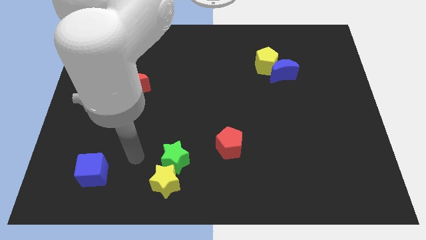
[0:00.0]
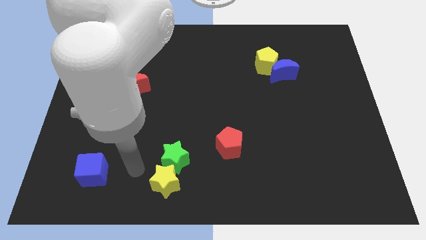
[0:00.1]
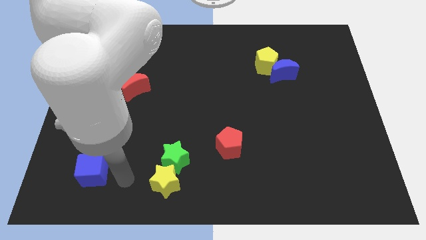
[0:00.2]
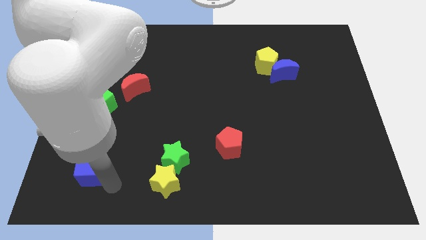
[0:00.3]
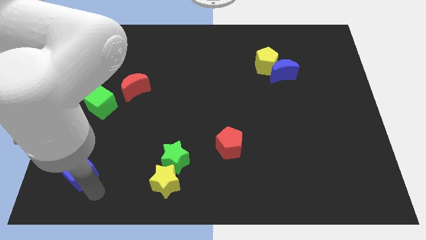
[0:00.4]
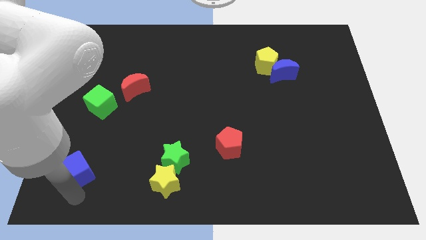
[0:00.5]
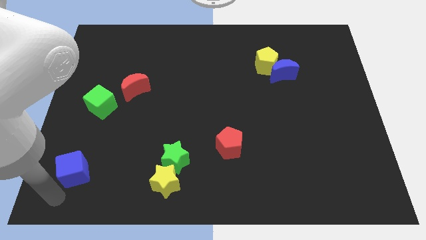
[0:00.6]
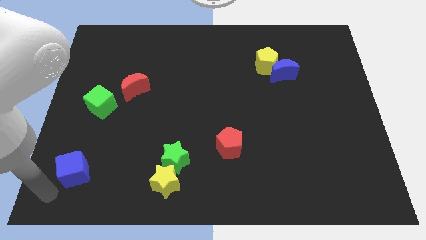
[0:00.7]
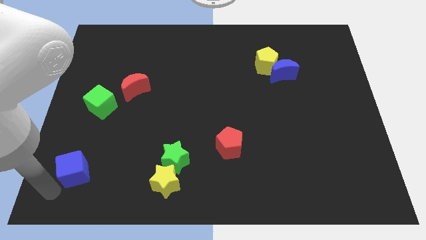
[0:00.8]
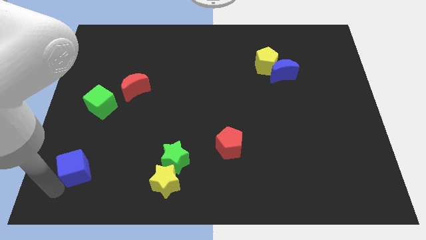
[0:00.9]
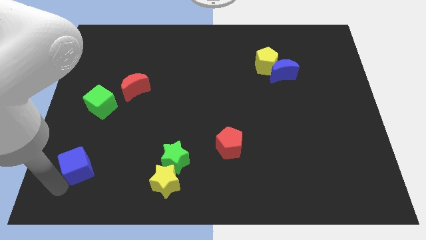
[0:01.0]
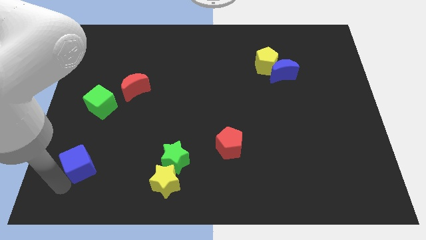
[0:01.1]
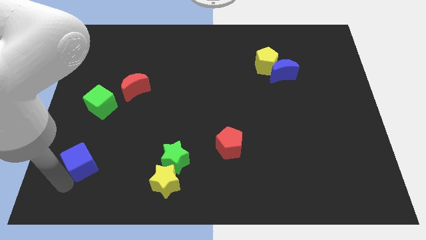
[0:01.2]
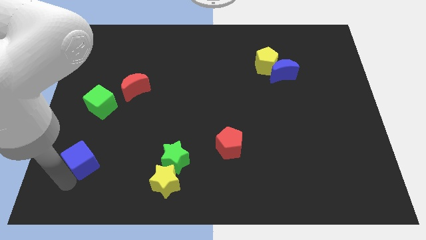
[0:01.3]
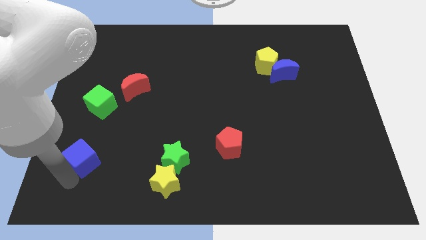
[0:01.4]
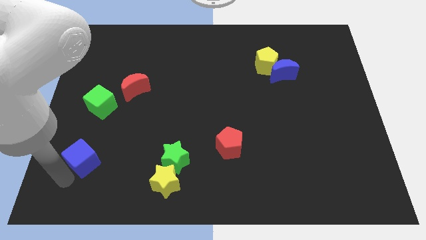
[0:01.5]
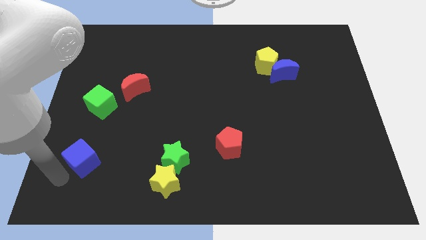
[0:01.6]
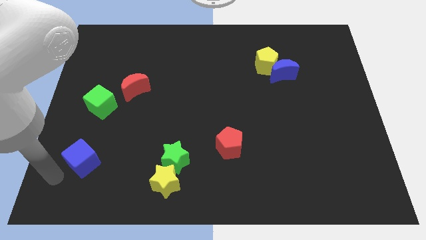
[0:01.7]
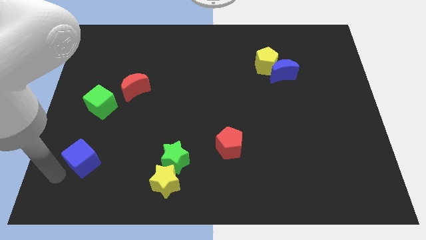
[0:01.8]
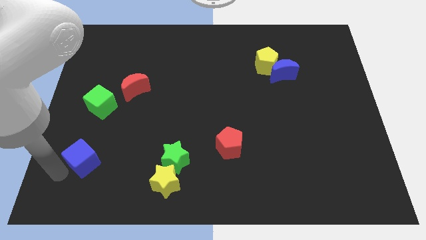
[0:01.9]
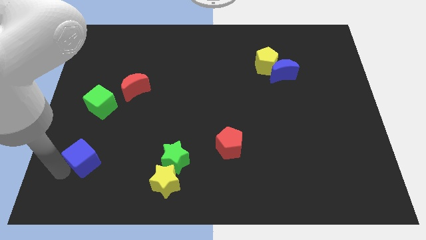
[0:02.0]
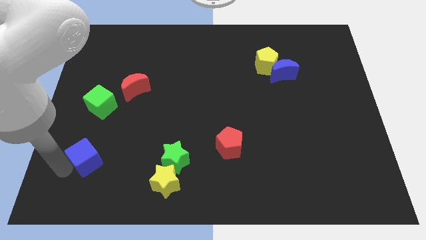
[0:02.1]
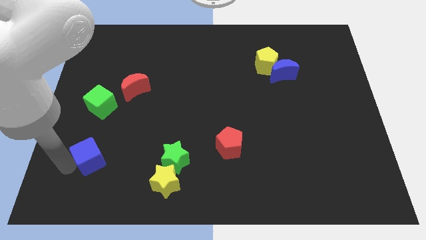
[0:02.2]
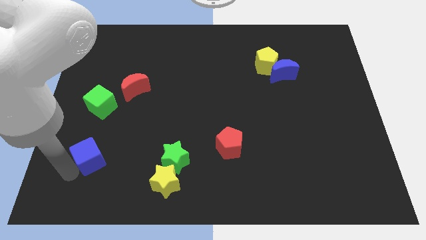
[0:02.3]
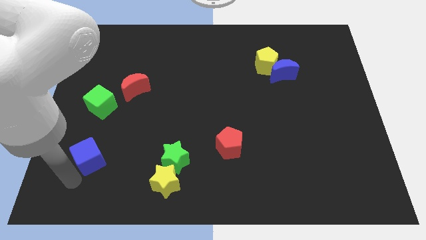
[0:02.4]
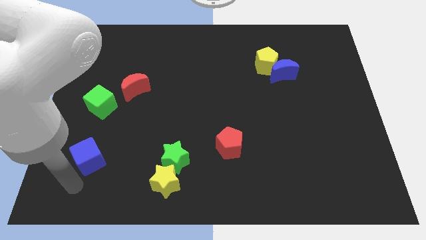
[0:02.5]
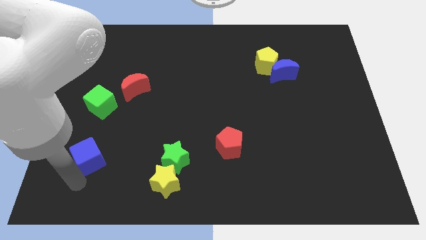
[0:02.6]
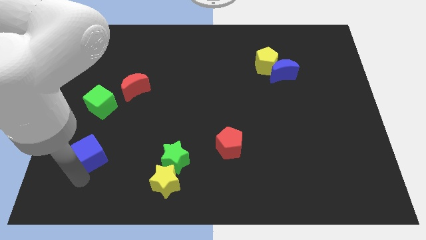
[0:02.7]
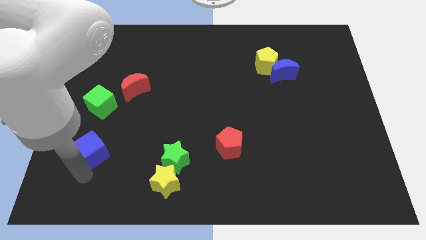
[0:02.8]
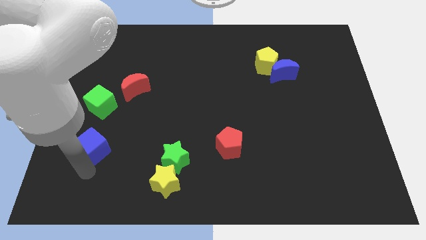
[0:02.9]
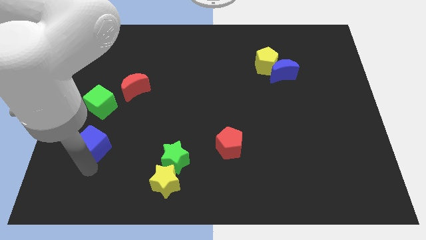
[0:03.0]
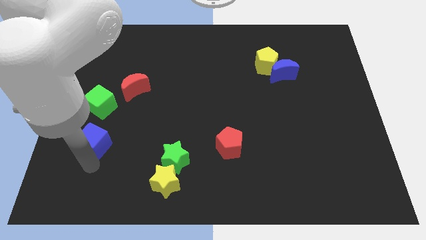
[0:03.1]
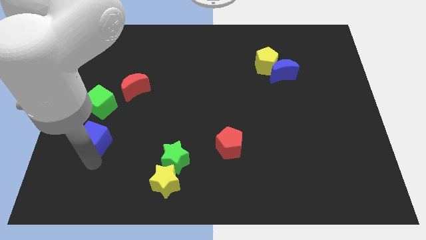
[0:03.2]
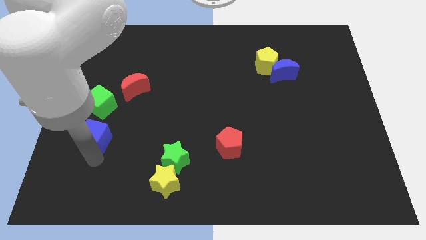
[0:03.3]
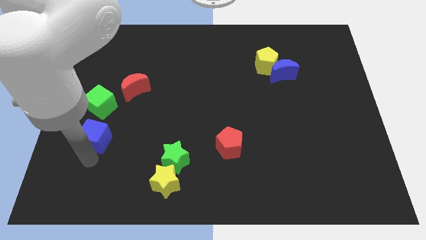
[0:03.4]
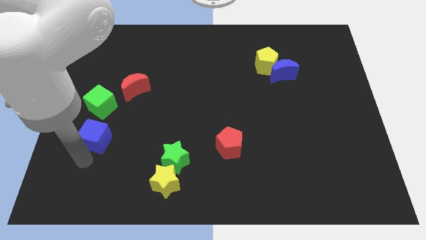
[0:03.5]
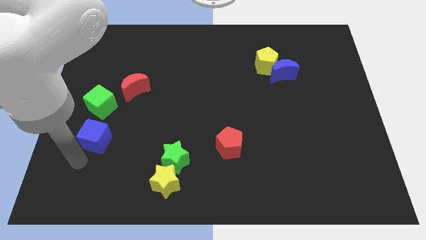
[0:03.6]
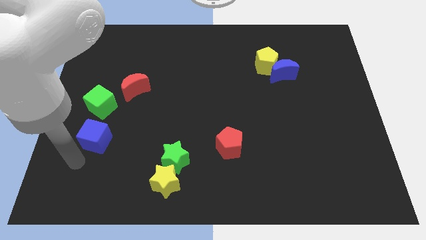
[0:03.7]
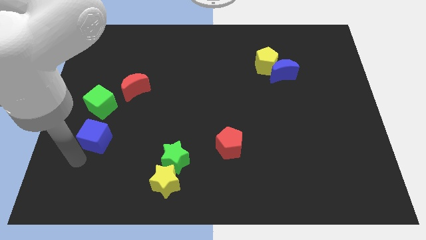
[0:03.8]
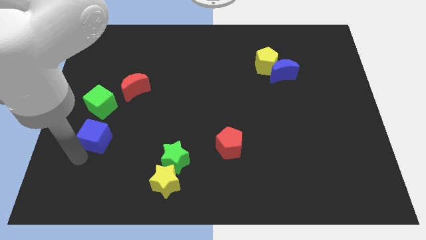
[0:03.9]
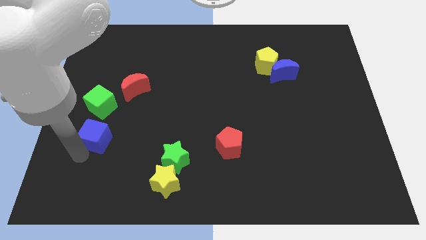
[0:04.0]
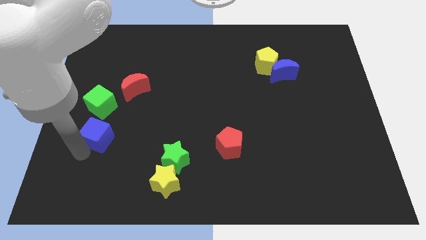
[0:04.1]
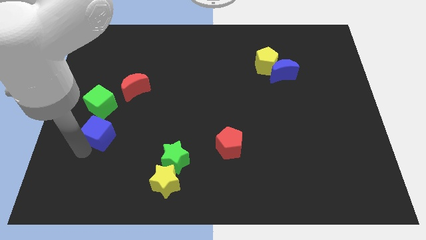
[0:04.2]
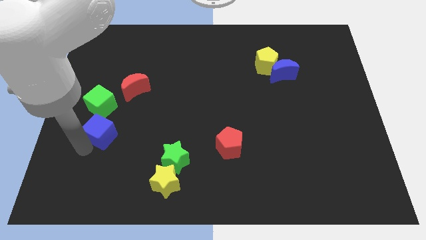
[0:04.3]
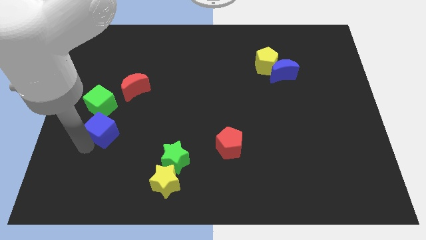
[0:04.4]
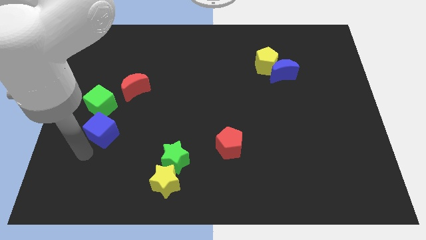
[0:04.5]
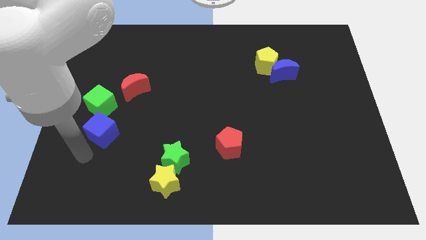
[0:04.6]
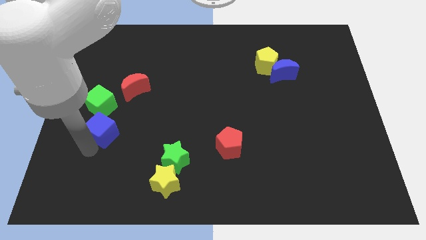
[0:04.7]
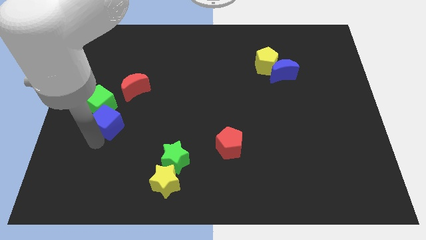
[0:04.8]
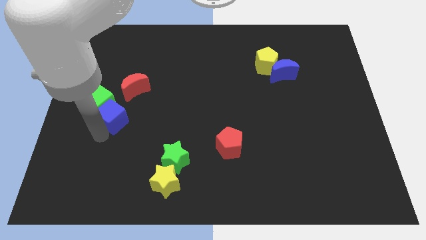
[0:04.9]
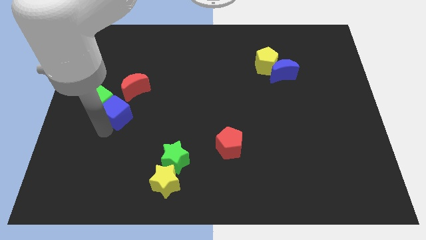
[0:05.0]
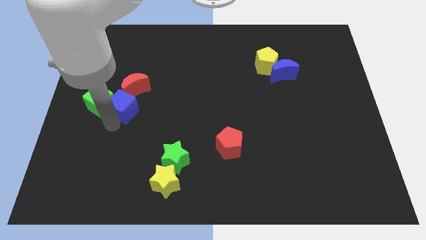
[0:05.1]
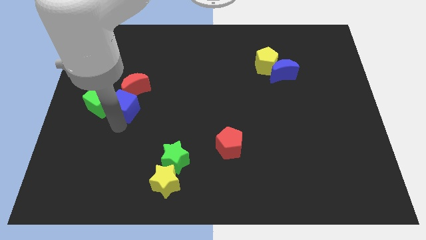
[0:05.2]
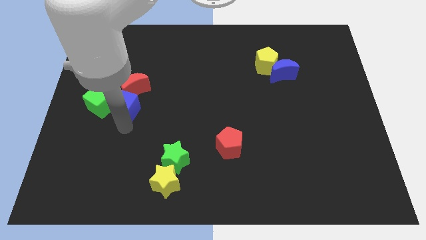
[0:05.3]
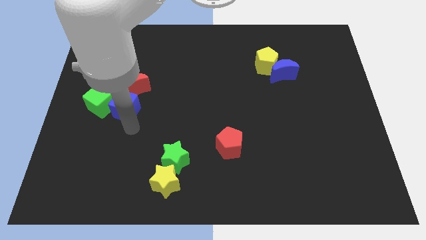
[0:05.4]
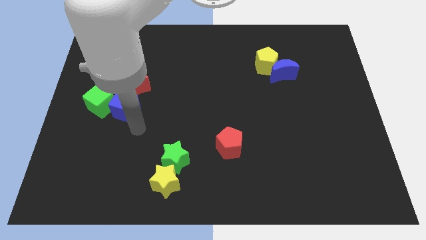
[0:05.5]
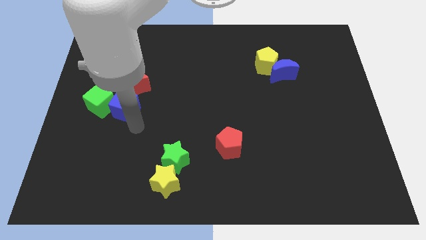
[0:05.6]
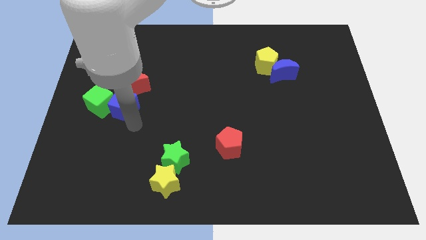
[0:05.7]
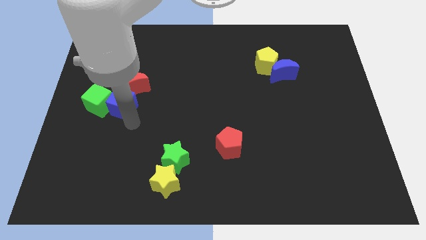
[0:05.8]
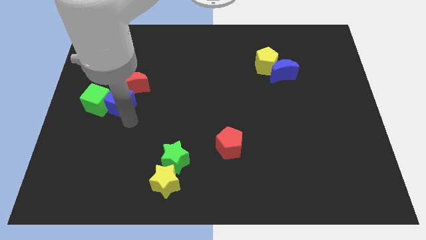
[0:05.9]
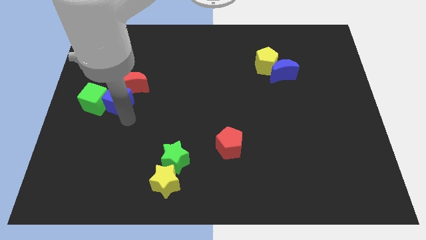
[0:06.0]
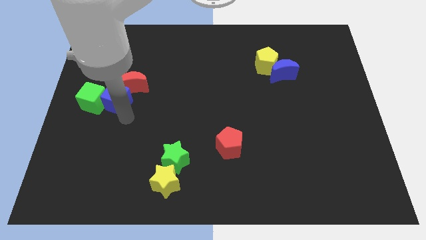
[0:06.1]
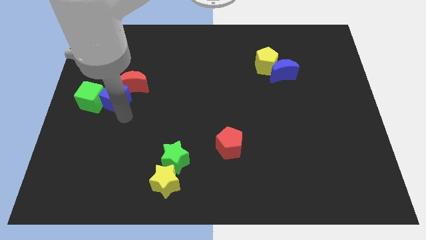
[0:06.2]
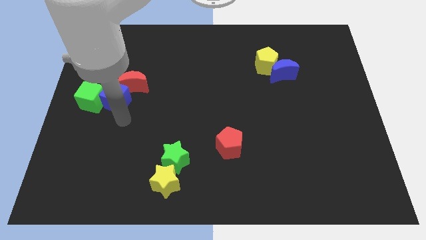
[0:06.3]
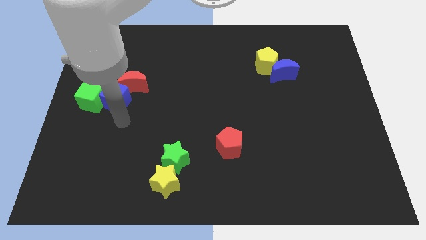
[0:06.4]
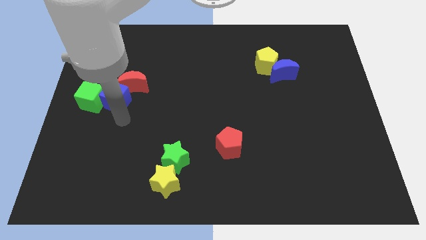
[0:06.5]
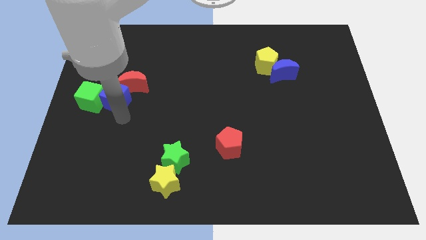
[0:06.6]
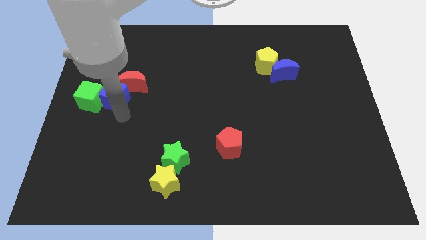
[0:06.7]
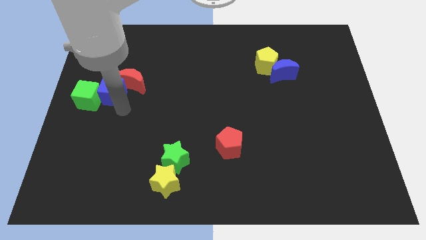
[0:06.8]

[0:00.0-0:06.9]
push the blue cube upwards

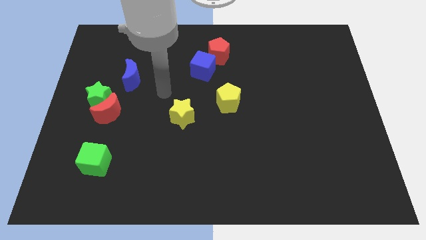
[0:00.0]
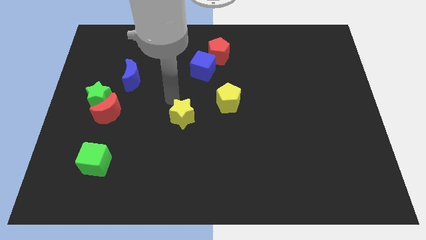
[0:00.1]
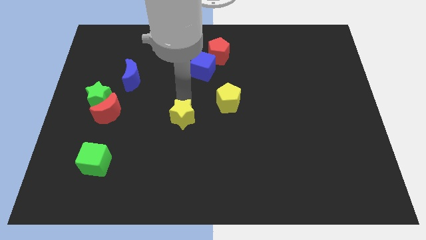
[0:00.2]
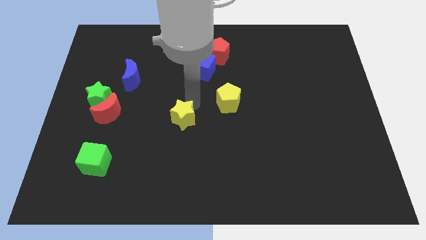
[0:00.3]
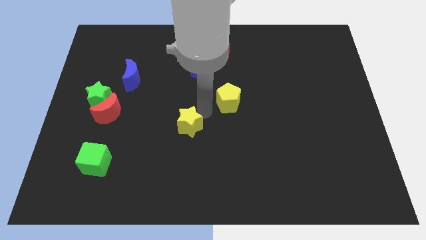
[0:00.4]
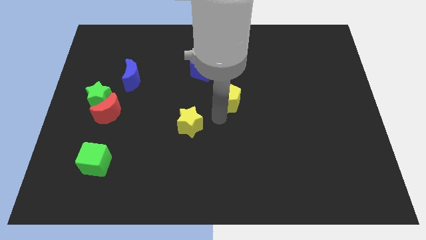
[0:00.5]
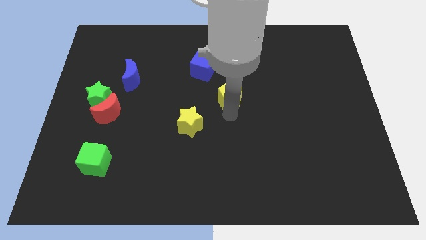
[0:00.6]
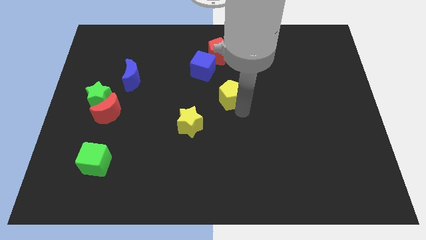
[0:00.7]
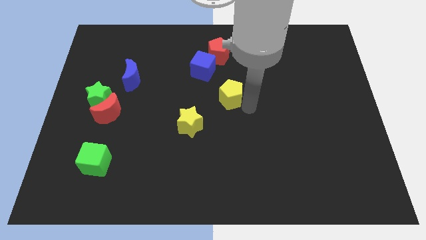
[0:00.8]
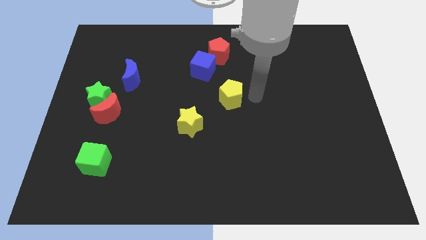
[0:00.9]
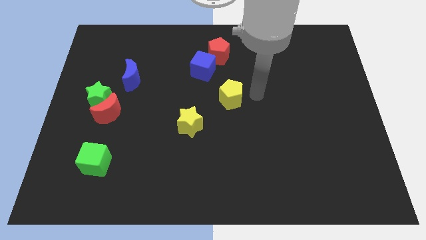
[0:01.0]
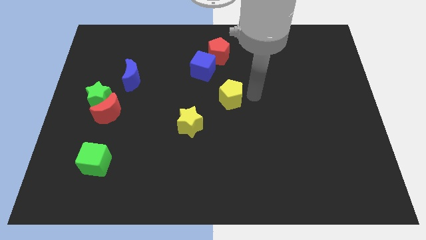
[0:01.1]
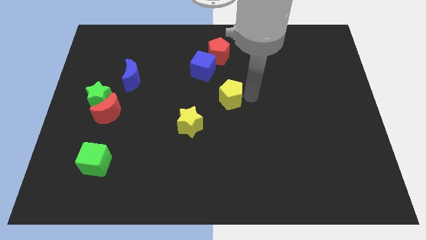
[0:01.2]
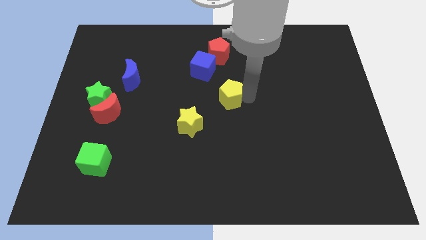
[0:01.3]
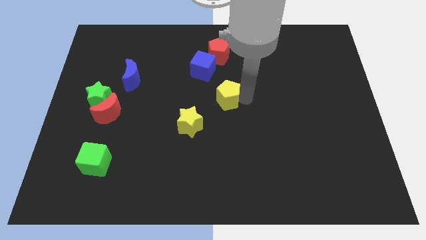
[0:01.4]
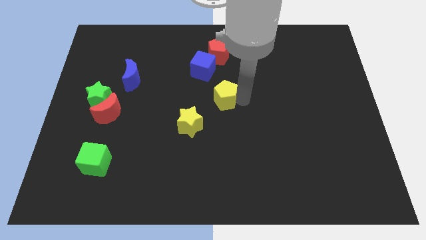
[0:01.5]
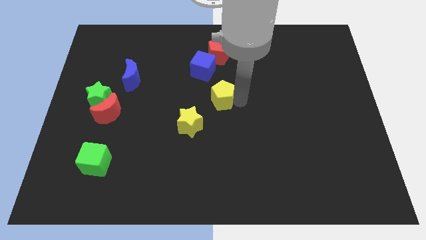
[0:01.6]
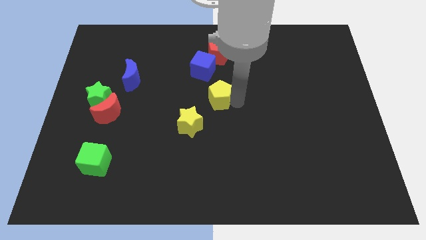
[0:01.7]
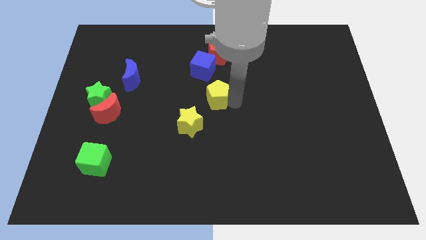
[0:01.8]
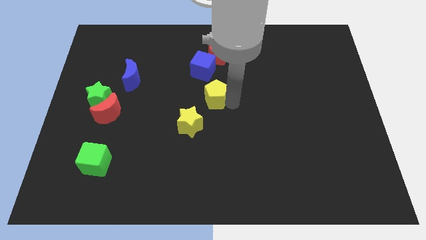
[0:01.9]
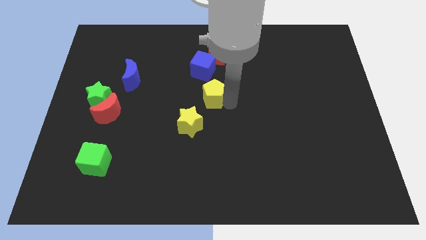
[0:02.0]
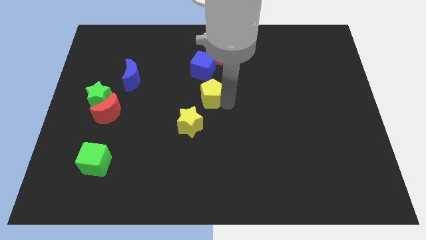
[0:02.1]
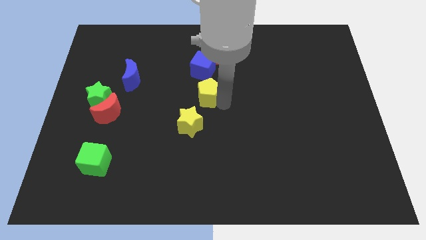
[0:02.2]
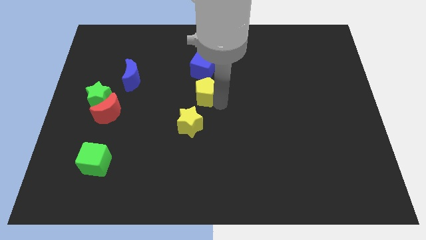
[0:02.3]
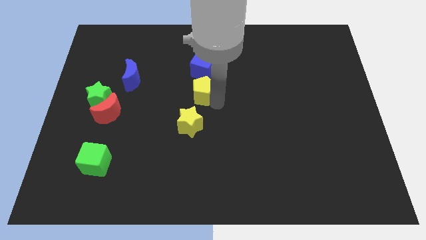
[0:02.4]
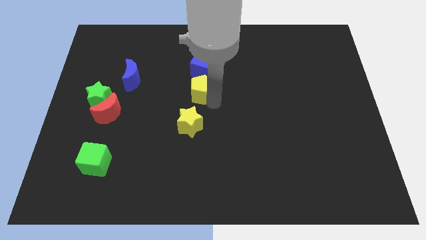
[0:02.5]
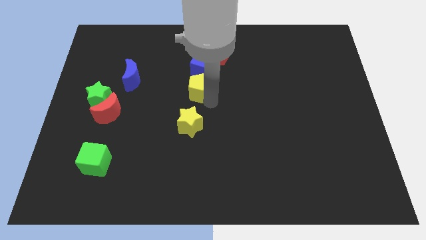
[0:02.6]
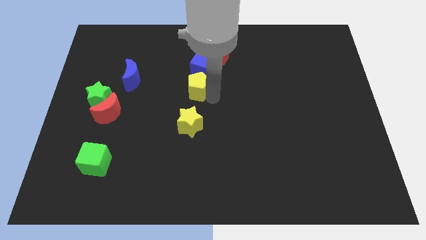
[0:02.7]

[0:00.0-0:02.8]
slightly slide the yellow pentagon to the left
